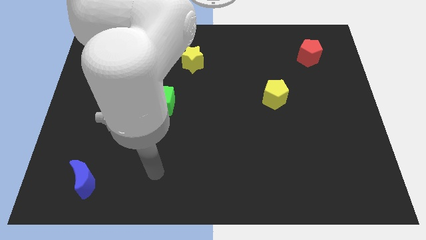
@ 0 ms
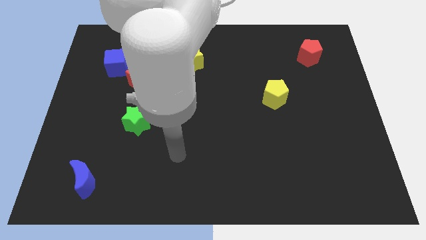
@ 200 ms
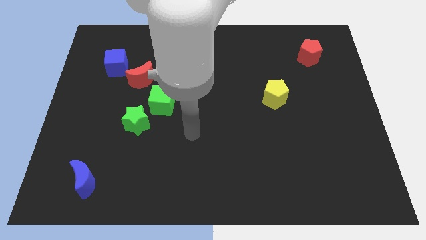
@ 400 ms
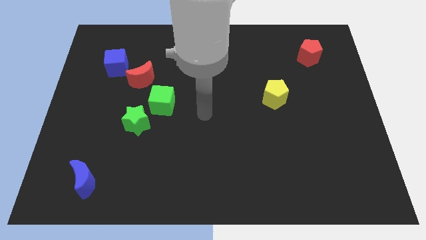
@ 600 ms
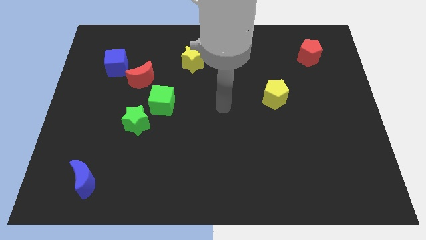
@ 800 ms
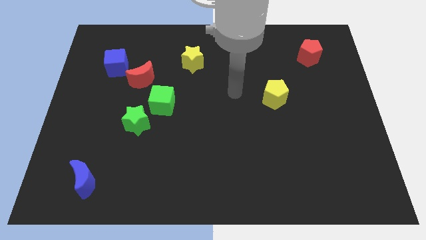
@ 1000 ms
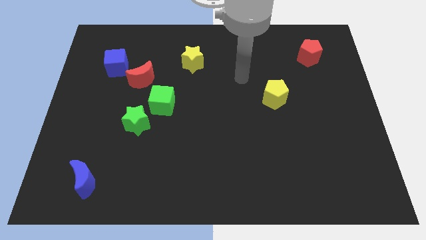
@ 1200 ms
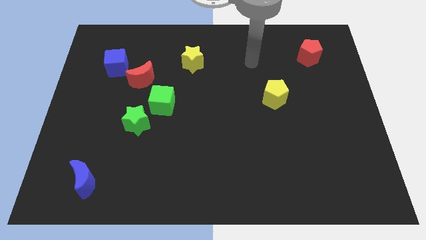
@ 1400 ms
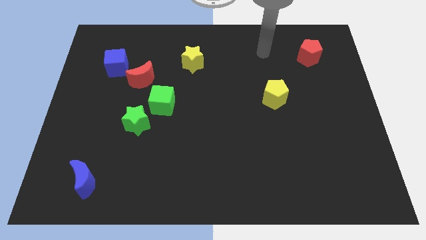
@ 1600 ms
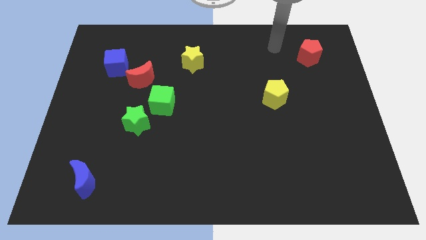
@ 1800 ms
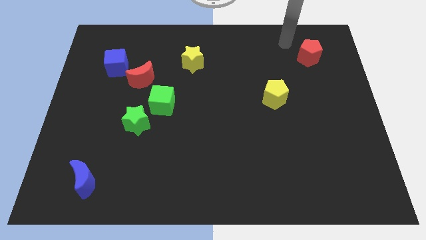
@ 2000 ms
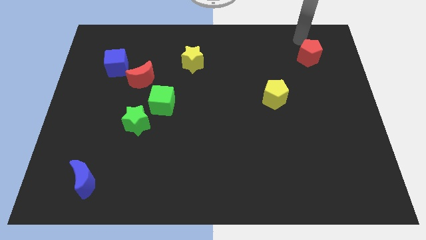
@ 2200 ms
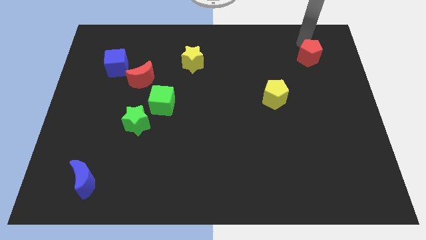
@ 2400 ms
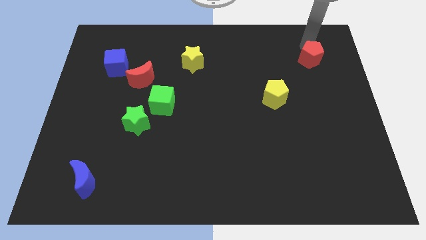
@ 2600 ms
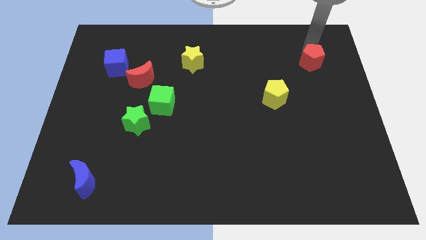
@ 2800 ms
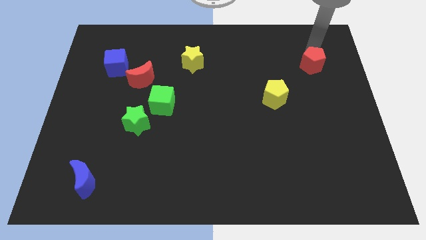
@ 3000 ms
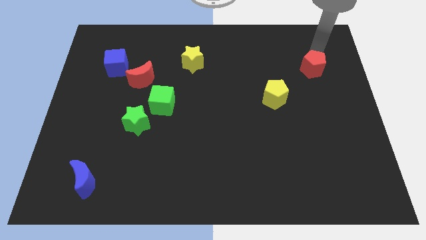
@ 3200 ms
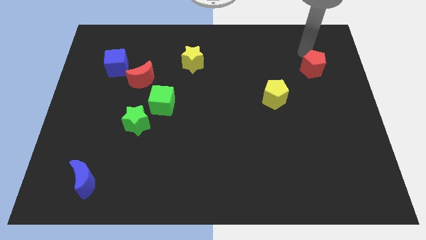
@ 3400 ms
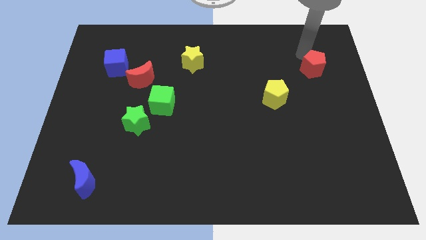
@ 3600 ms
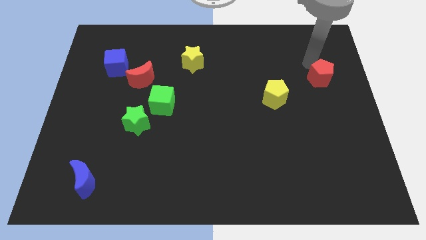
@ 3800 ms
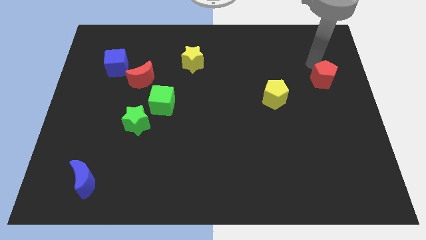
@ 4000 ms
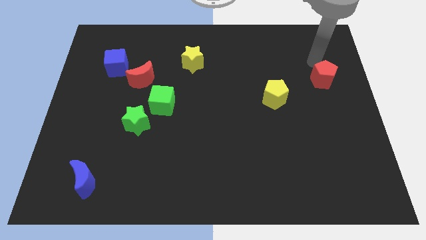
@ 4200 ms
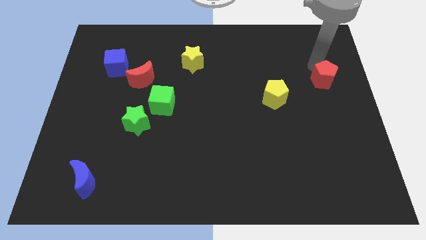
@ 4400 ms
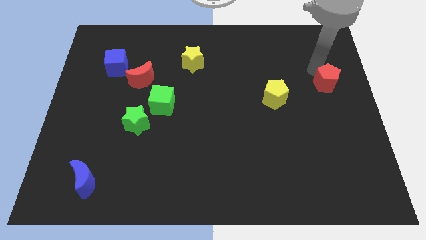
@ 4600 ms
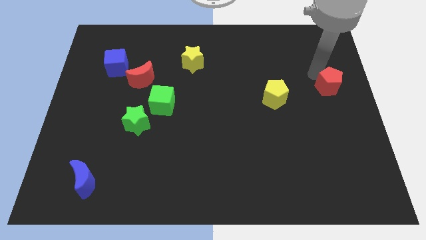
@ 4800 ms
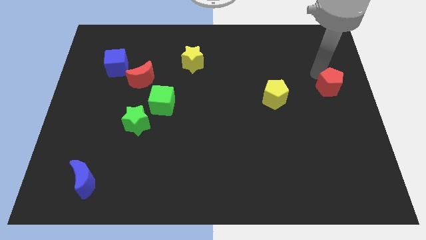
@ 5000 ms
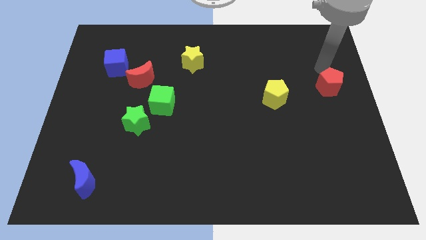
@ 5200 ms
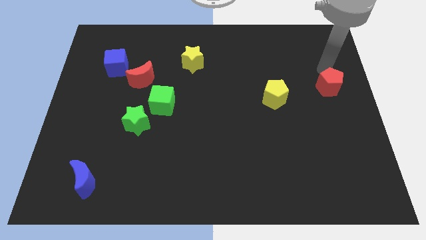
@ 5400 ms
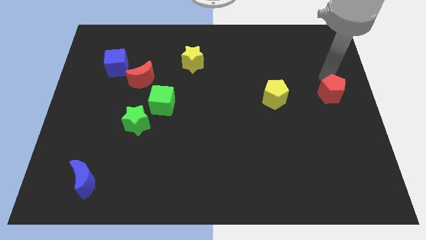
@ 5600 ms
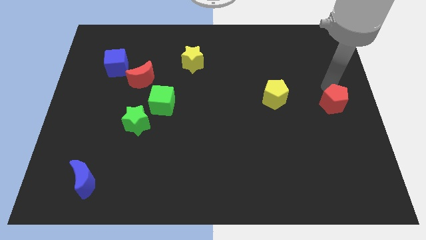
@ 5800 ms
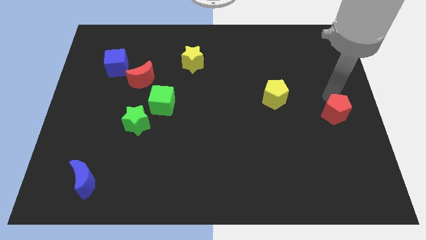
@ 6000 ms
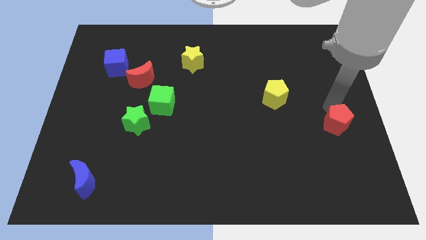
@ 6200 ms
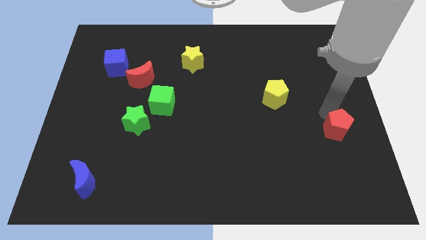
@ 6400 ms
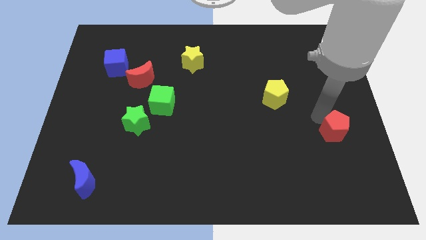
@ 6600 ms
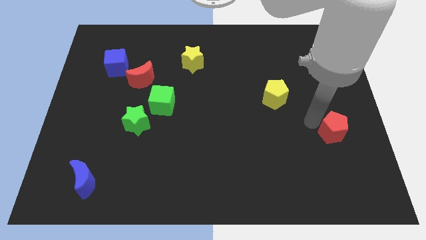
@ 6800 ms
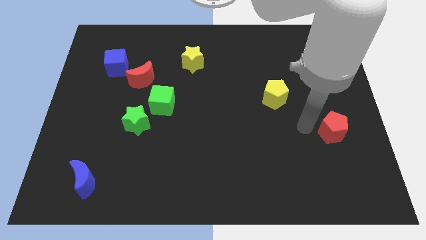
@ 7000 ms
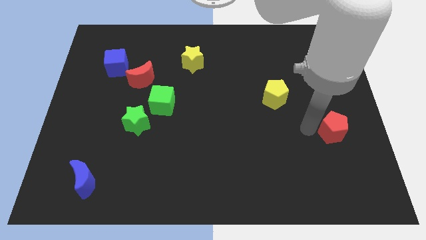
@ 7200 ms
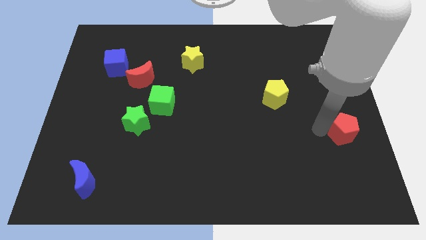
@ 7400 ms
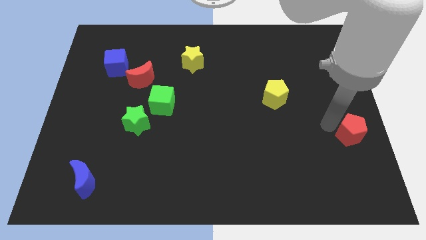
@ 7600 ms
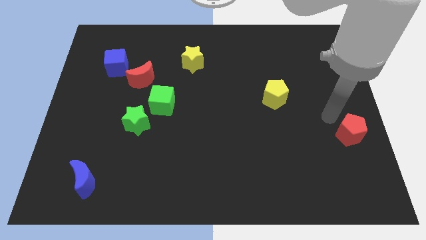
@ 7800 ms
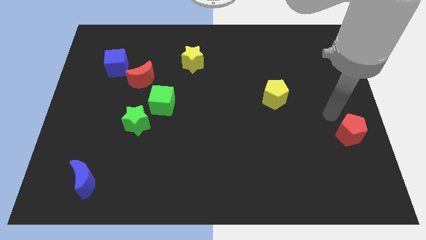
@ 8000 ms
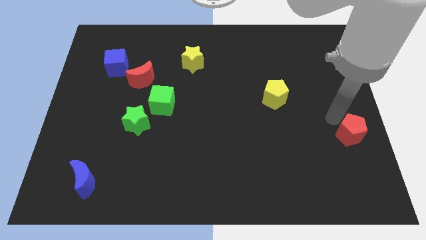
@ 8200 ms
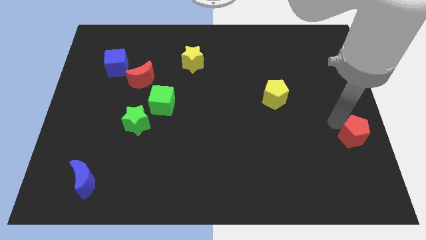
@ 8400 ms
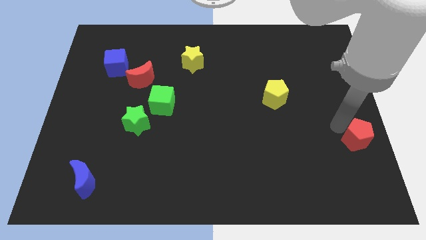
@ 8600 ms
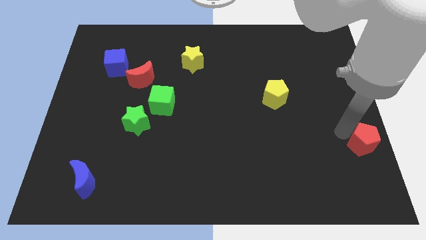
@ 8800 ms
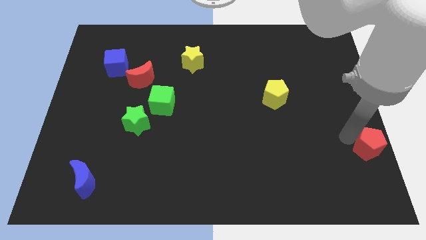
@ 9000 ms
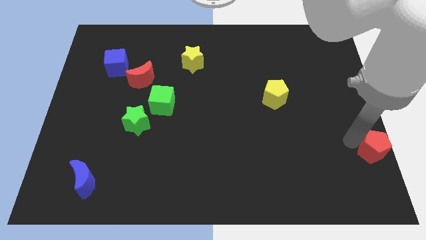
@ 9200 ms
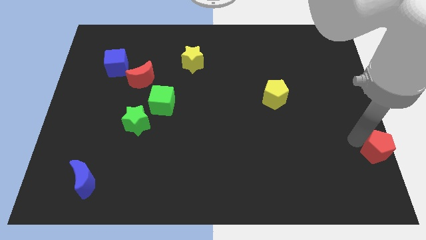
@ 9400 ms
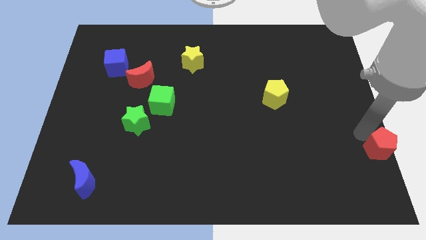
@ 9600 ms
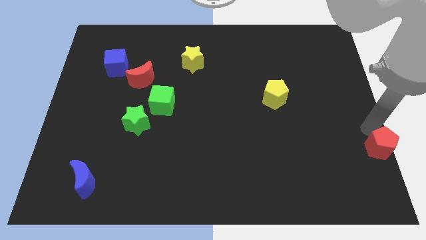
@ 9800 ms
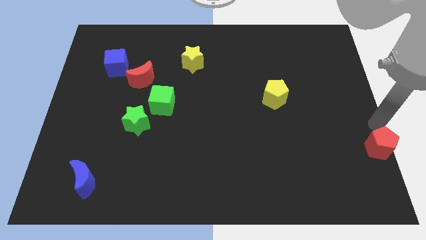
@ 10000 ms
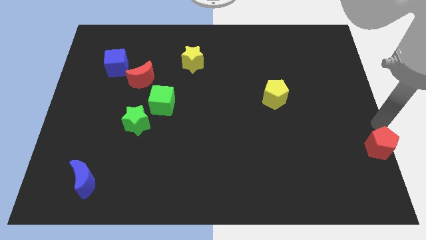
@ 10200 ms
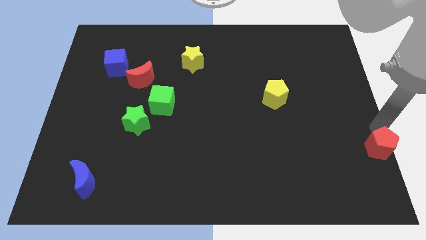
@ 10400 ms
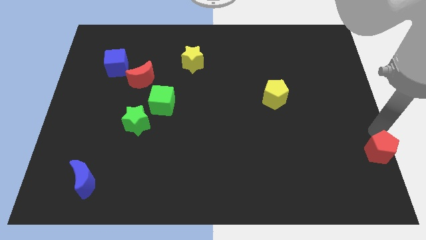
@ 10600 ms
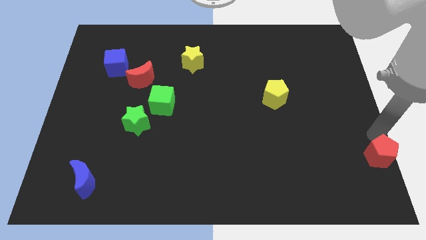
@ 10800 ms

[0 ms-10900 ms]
put the red pentagon to the bottom right of the board

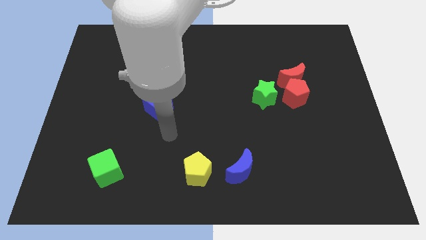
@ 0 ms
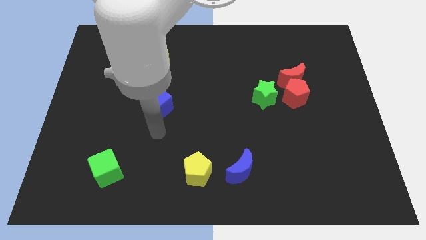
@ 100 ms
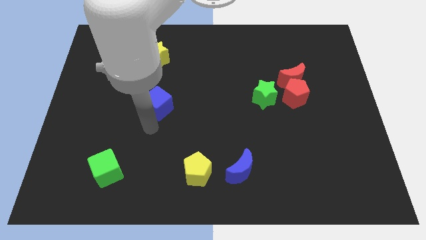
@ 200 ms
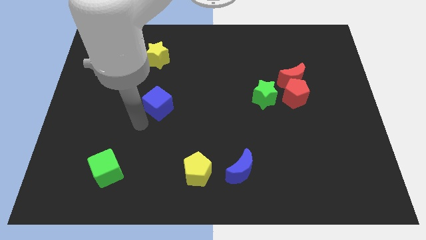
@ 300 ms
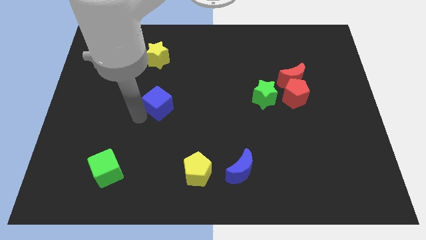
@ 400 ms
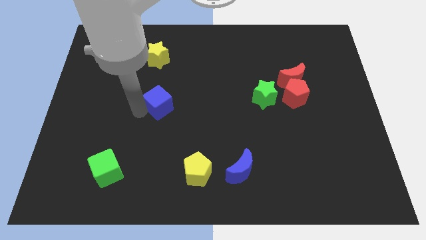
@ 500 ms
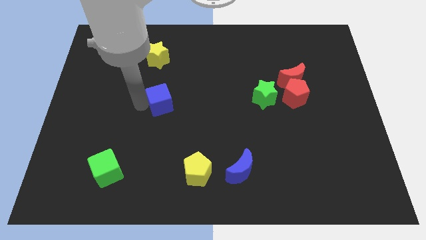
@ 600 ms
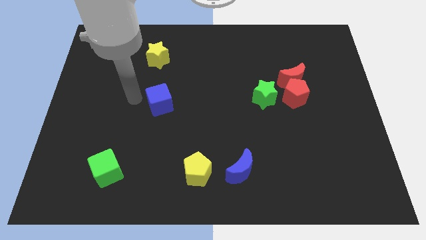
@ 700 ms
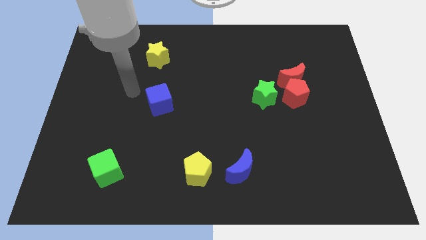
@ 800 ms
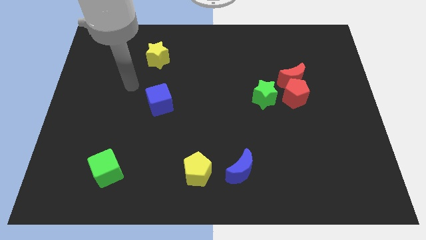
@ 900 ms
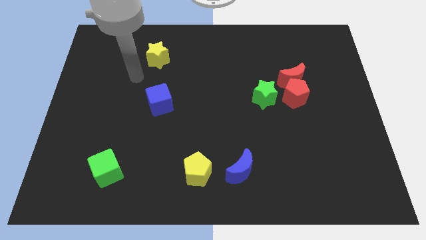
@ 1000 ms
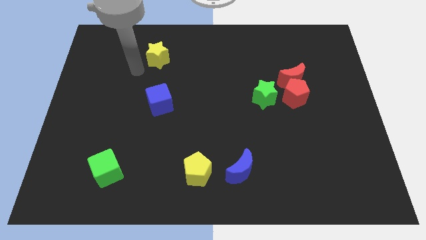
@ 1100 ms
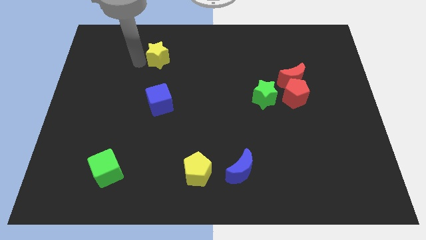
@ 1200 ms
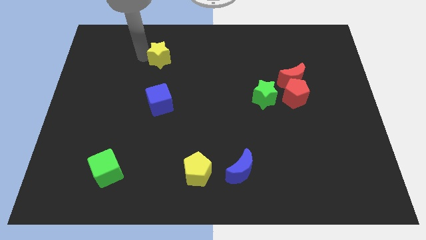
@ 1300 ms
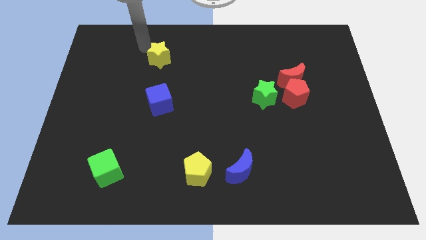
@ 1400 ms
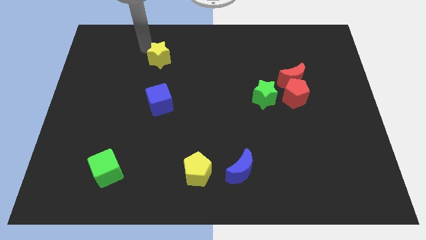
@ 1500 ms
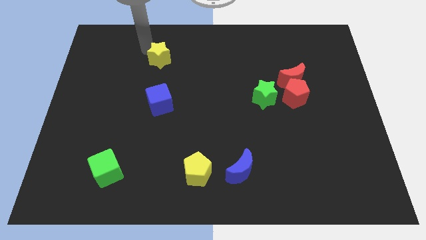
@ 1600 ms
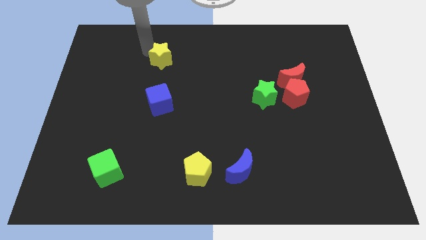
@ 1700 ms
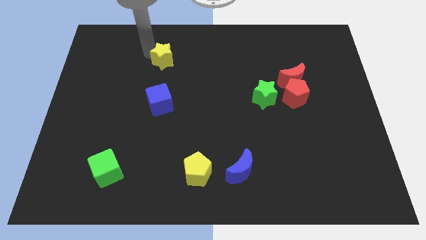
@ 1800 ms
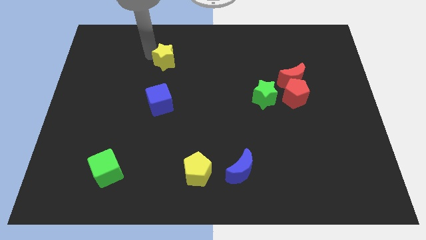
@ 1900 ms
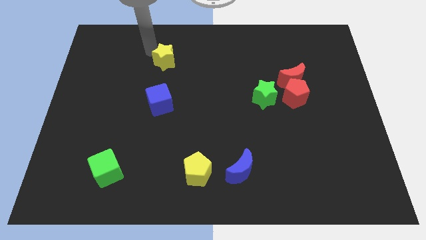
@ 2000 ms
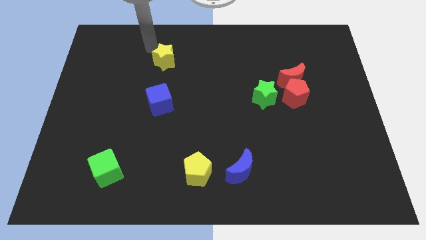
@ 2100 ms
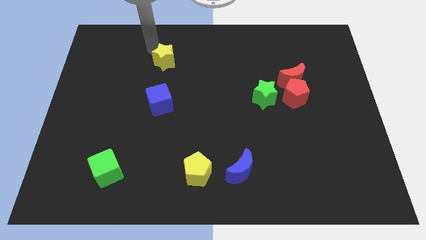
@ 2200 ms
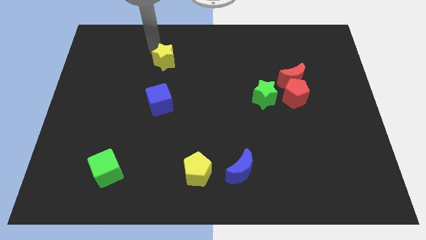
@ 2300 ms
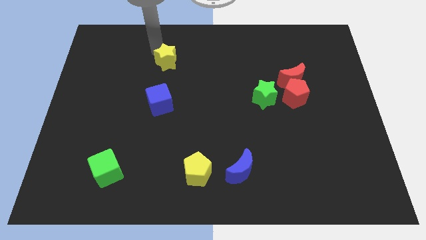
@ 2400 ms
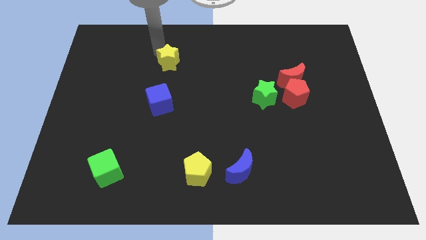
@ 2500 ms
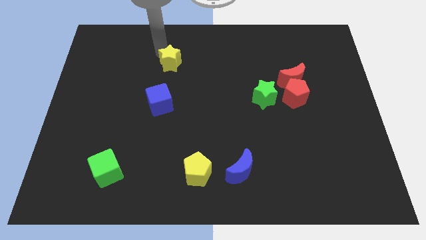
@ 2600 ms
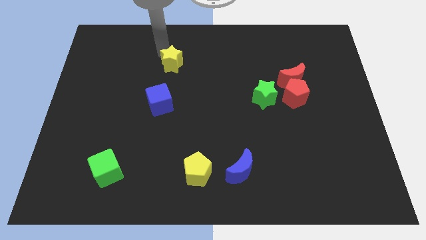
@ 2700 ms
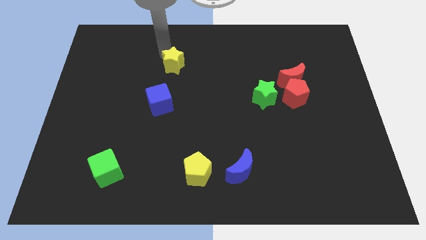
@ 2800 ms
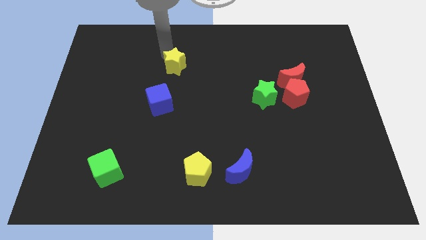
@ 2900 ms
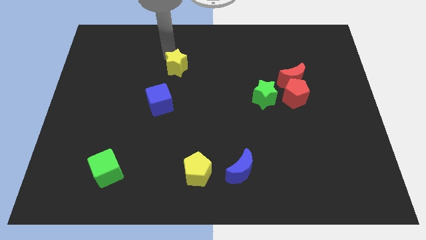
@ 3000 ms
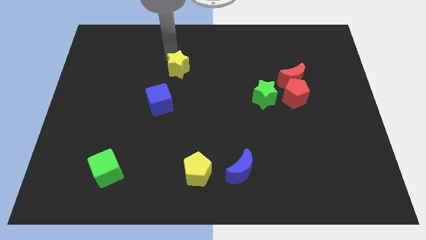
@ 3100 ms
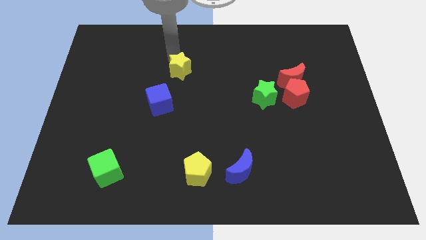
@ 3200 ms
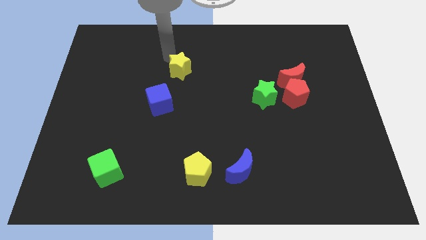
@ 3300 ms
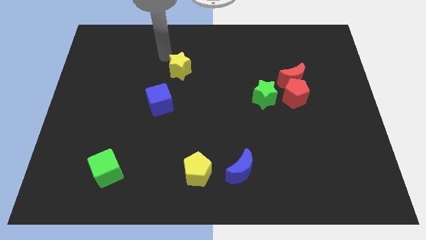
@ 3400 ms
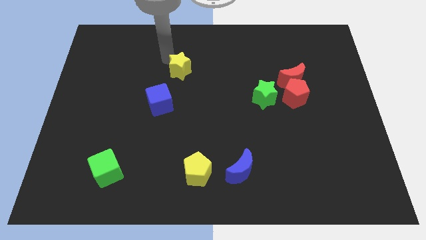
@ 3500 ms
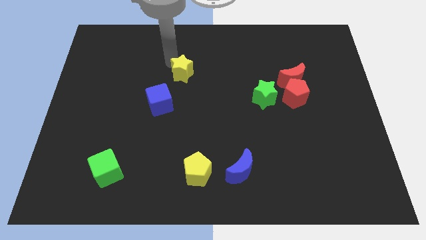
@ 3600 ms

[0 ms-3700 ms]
slide the yellow star to the center of the board
